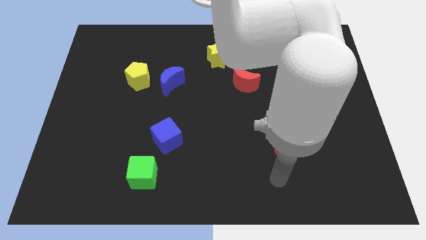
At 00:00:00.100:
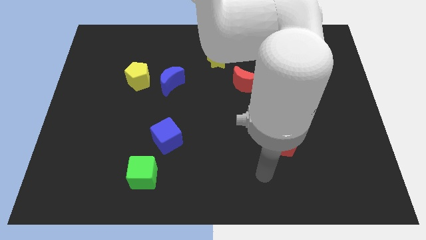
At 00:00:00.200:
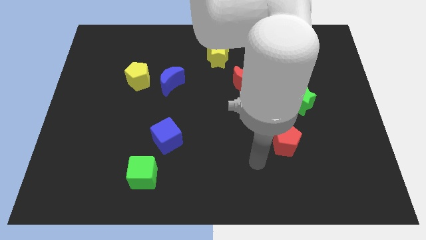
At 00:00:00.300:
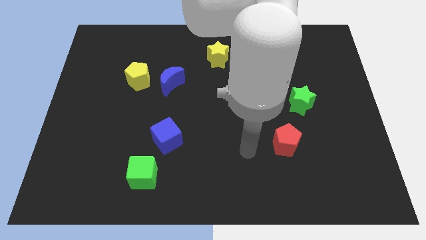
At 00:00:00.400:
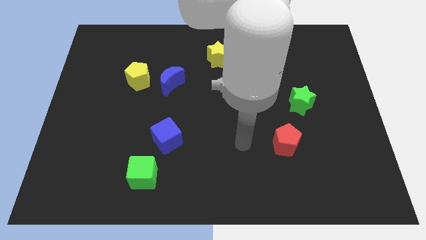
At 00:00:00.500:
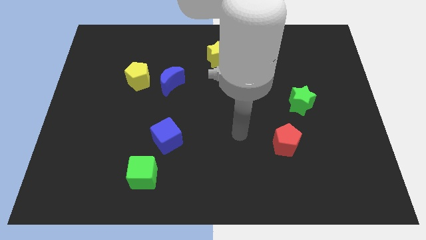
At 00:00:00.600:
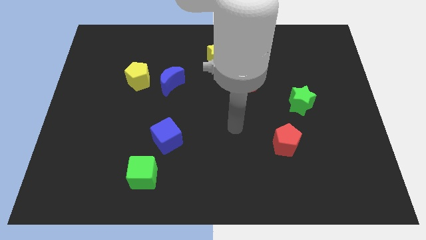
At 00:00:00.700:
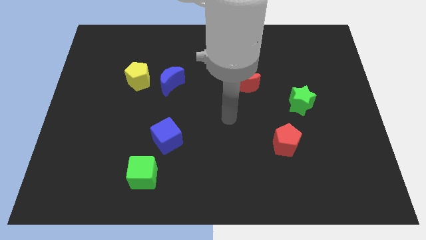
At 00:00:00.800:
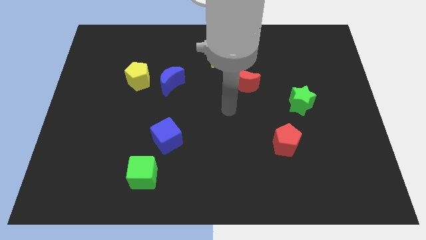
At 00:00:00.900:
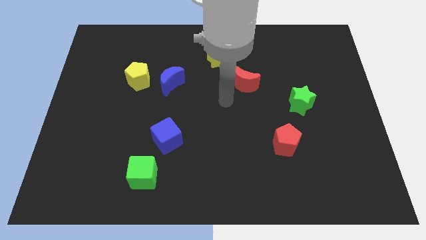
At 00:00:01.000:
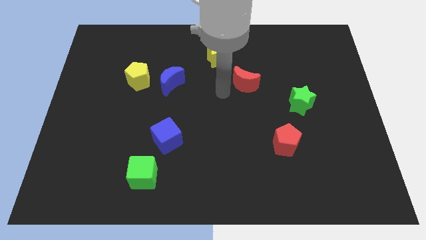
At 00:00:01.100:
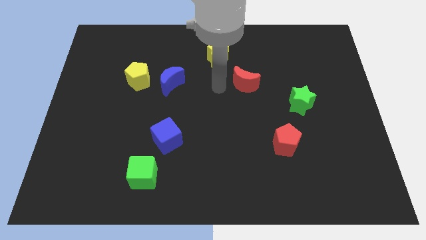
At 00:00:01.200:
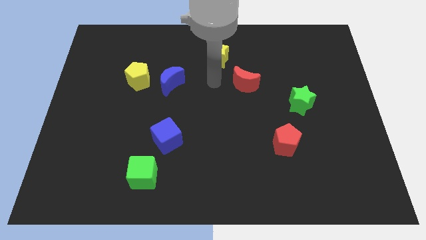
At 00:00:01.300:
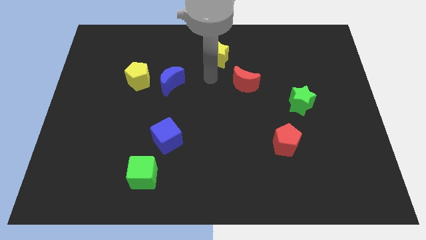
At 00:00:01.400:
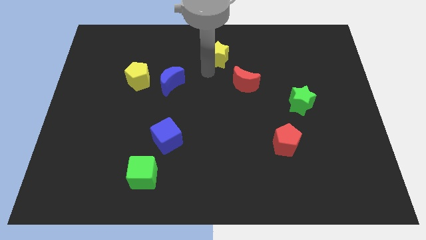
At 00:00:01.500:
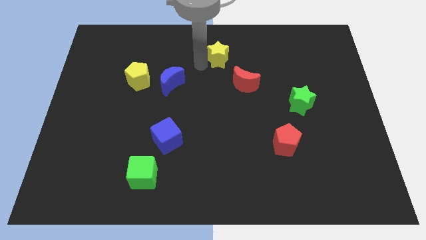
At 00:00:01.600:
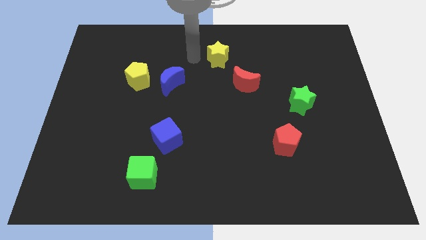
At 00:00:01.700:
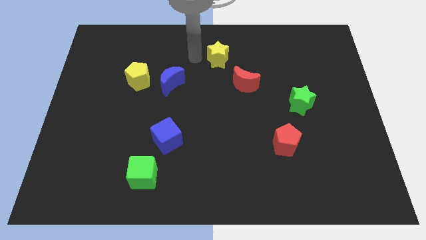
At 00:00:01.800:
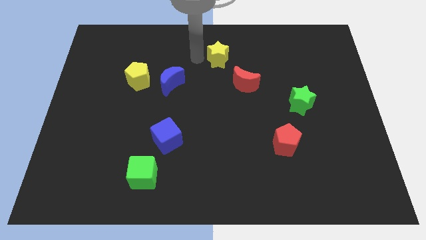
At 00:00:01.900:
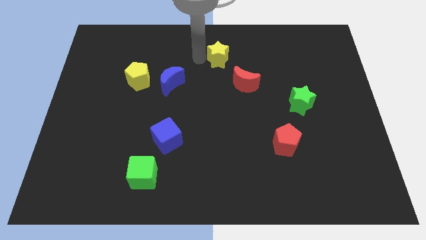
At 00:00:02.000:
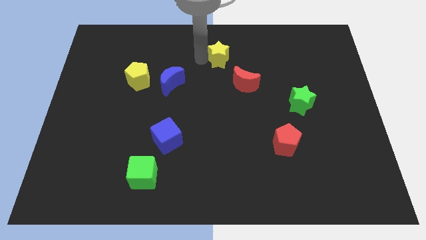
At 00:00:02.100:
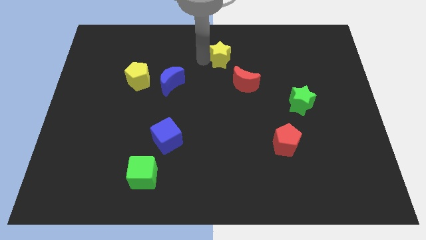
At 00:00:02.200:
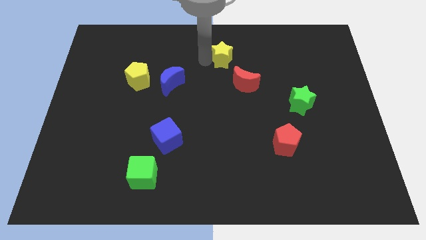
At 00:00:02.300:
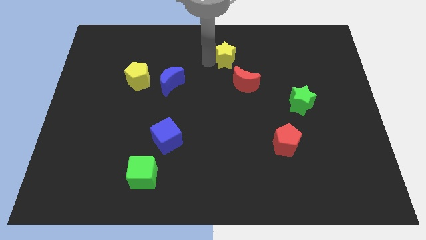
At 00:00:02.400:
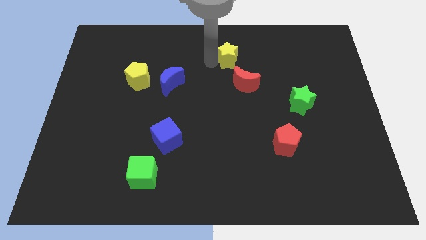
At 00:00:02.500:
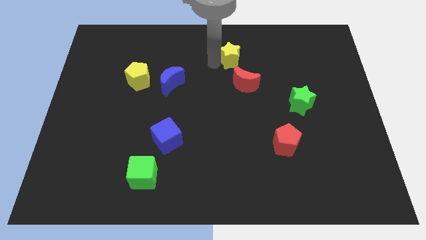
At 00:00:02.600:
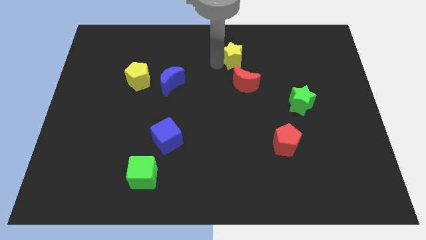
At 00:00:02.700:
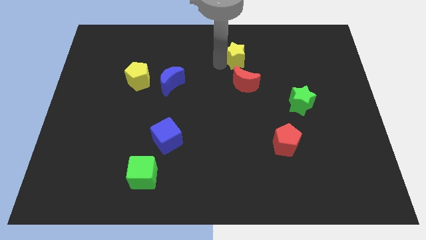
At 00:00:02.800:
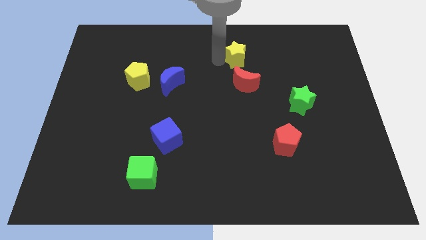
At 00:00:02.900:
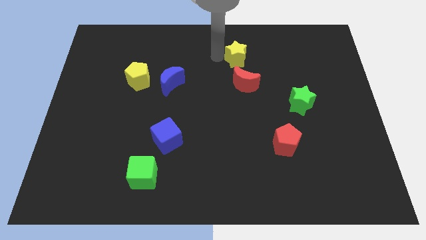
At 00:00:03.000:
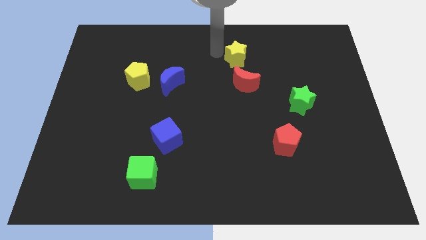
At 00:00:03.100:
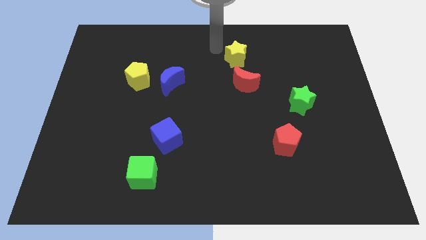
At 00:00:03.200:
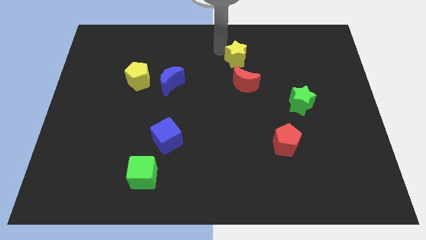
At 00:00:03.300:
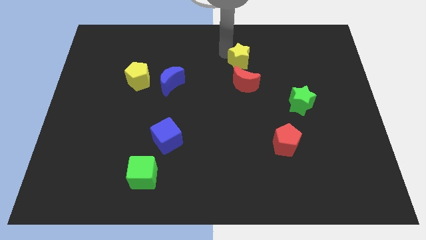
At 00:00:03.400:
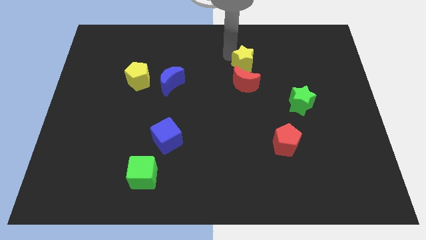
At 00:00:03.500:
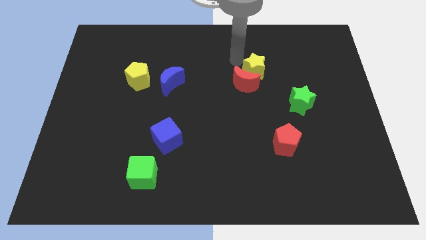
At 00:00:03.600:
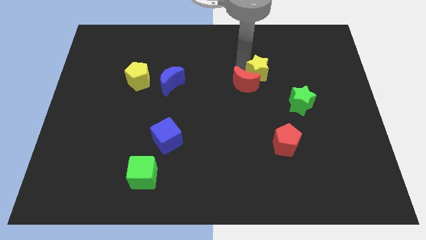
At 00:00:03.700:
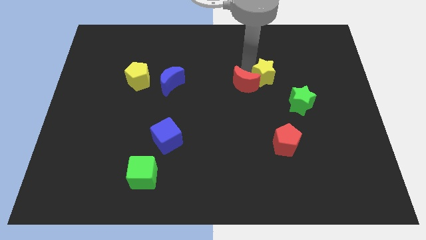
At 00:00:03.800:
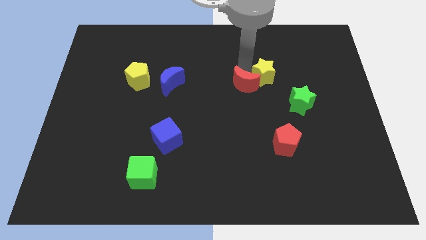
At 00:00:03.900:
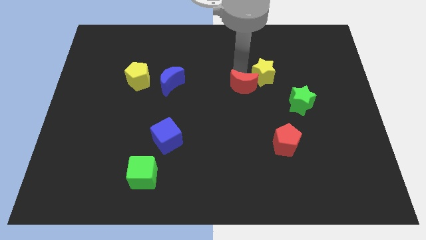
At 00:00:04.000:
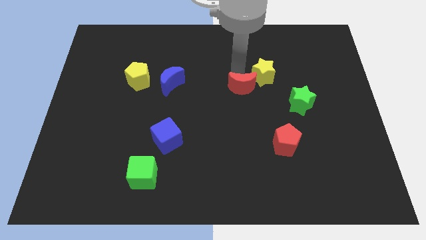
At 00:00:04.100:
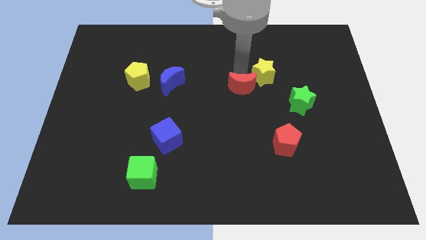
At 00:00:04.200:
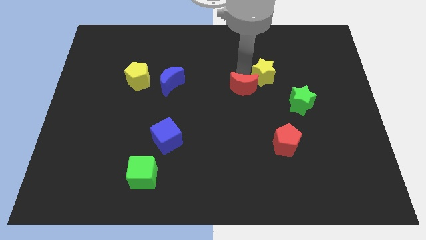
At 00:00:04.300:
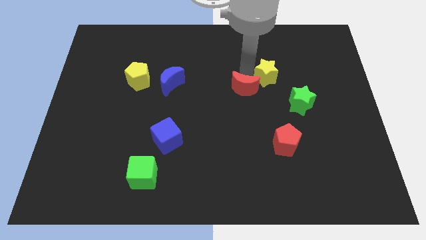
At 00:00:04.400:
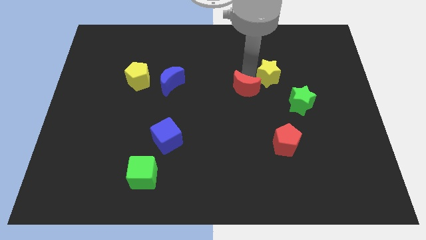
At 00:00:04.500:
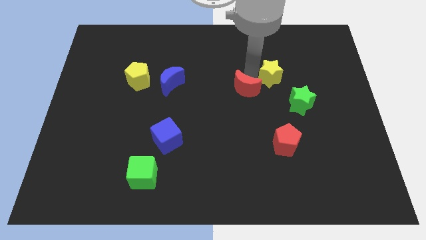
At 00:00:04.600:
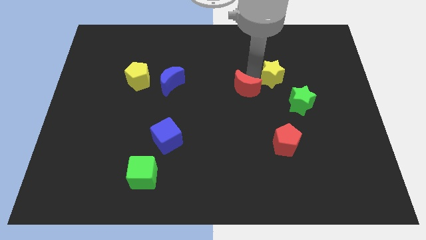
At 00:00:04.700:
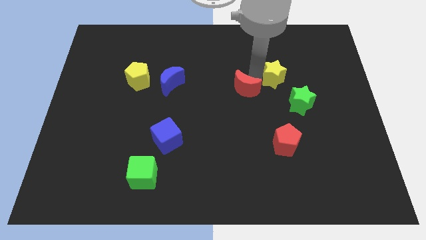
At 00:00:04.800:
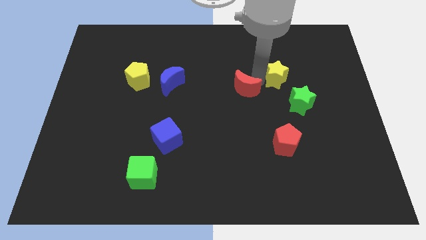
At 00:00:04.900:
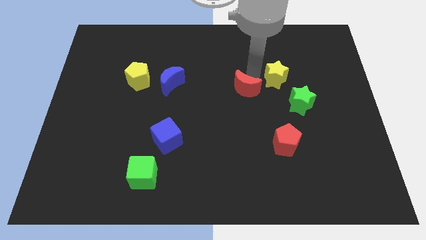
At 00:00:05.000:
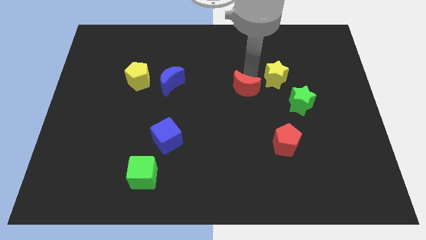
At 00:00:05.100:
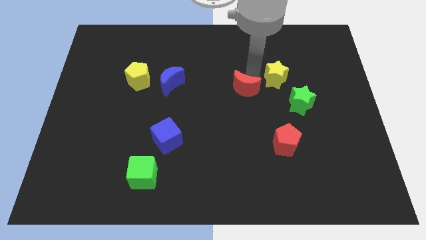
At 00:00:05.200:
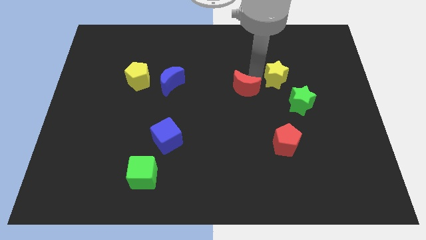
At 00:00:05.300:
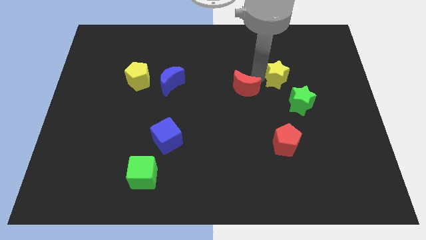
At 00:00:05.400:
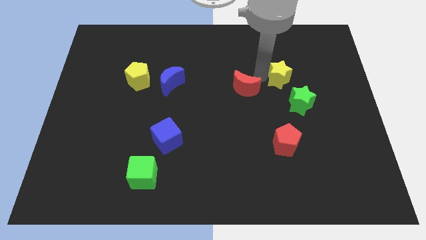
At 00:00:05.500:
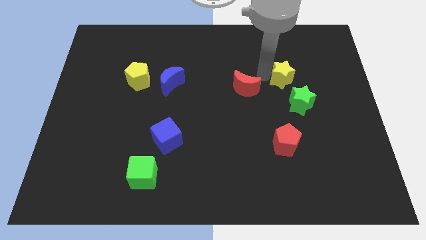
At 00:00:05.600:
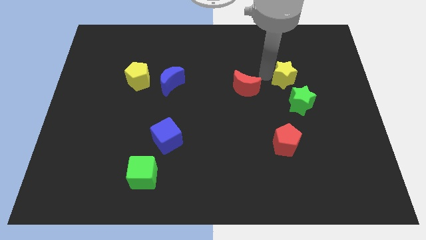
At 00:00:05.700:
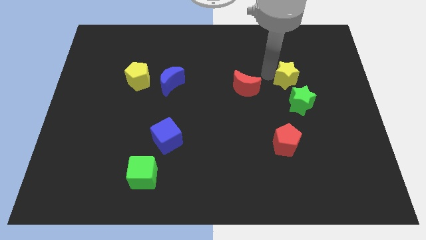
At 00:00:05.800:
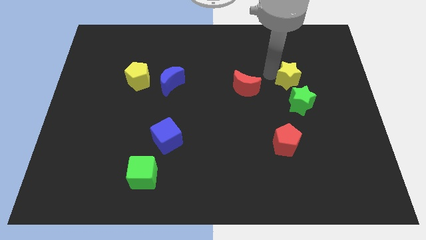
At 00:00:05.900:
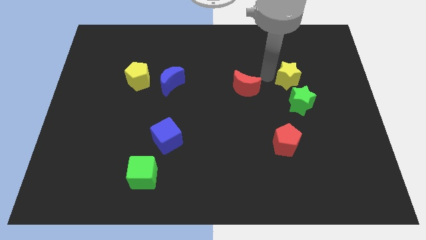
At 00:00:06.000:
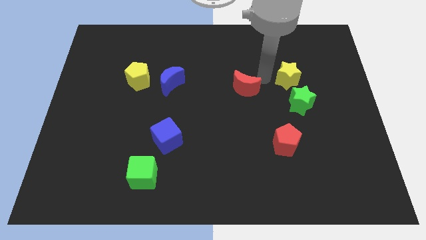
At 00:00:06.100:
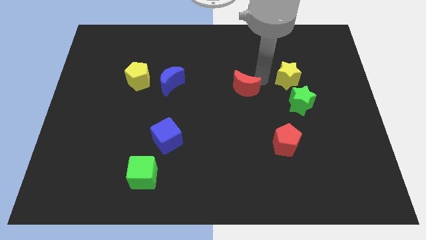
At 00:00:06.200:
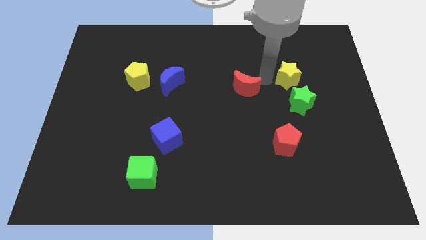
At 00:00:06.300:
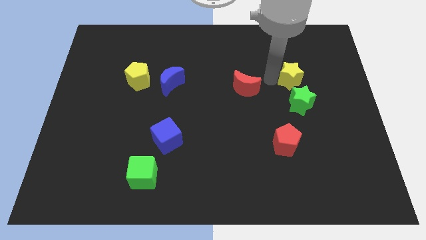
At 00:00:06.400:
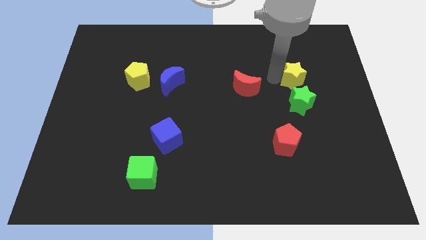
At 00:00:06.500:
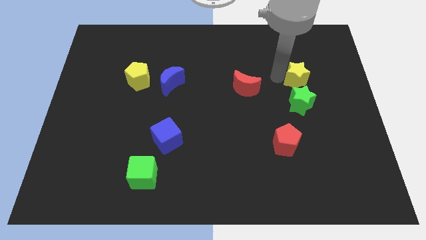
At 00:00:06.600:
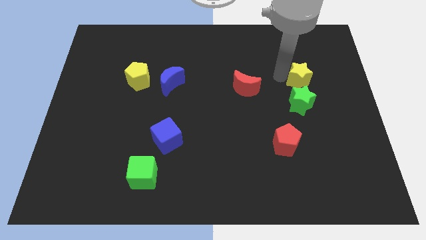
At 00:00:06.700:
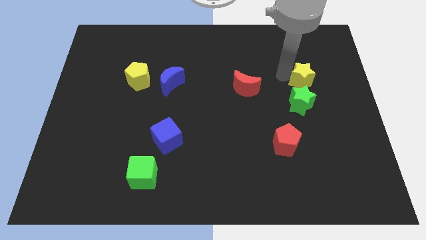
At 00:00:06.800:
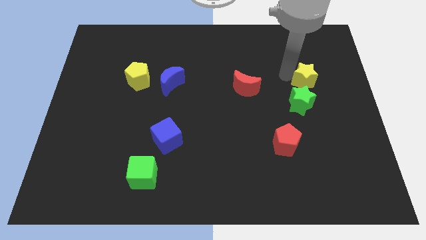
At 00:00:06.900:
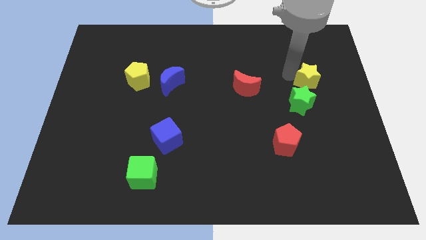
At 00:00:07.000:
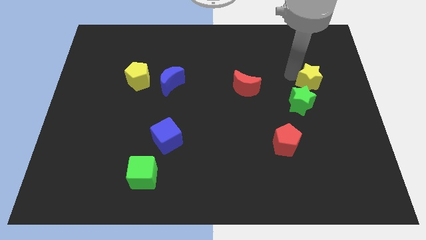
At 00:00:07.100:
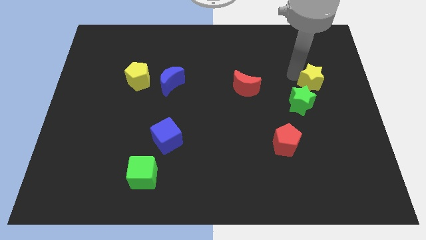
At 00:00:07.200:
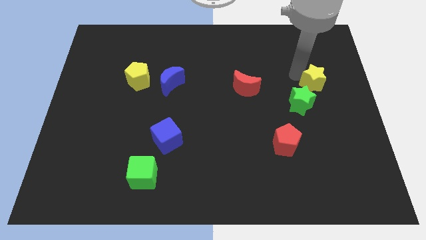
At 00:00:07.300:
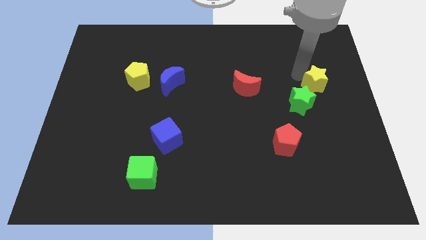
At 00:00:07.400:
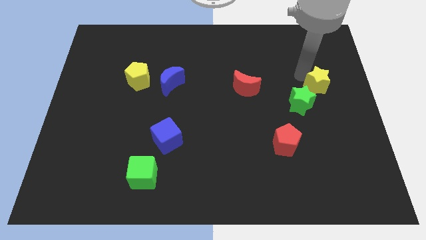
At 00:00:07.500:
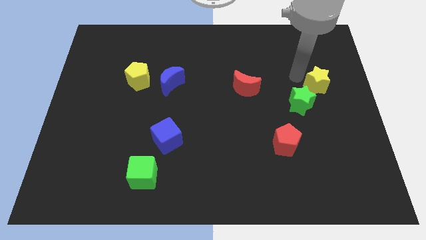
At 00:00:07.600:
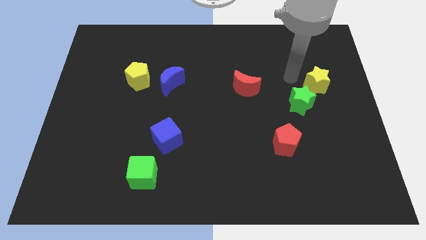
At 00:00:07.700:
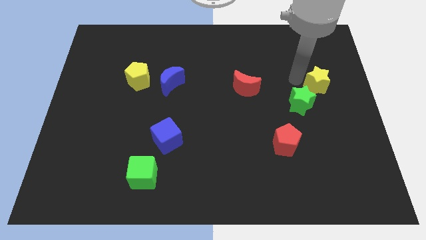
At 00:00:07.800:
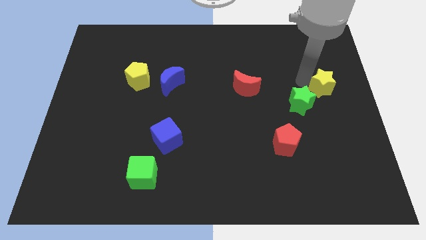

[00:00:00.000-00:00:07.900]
slide the yellow star to the right side

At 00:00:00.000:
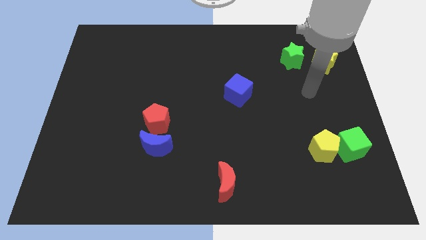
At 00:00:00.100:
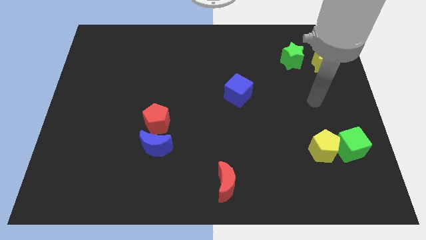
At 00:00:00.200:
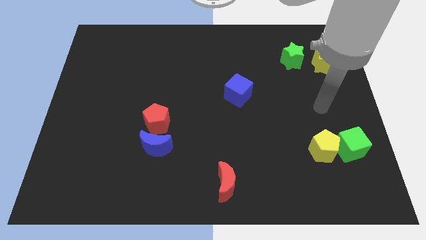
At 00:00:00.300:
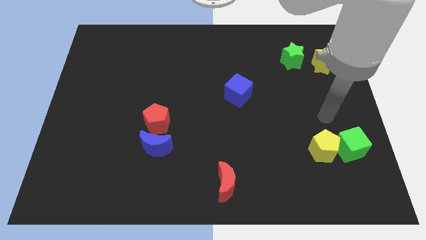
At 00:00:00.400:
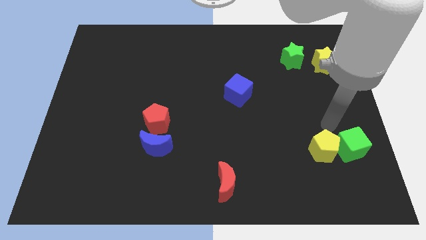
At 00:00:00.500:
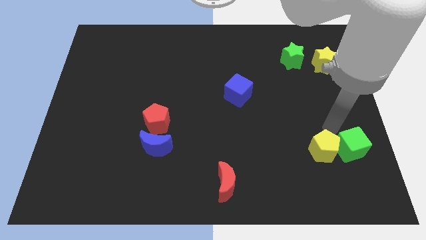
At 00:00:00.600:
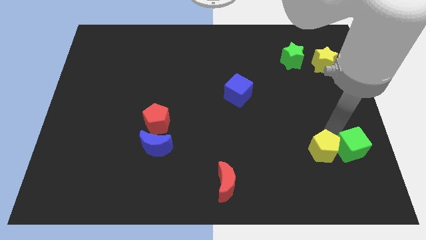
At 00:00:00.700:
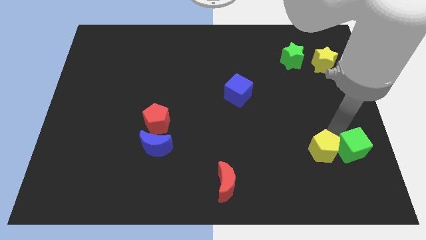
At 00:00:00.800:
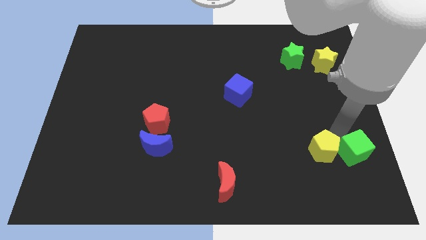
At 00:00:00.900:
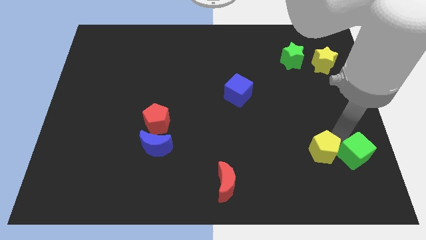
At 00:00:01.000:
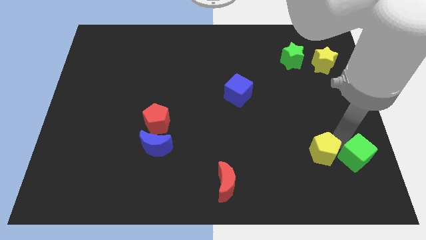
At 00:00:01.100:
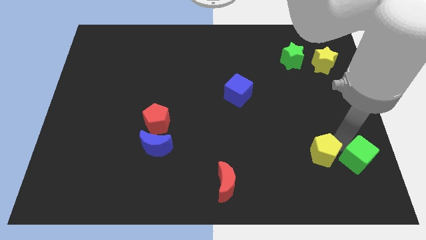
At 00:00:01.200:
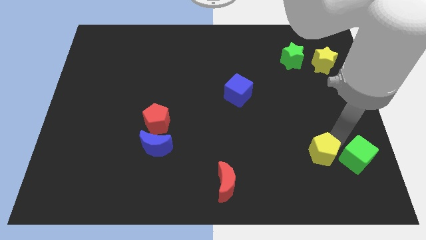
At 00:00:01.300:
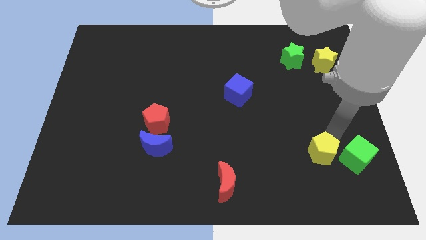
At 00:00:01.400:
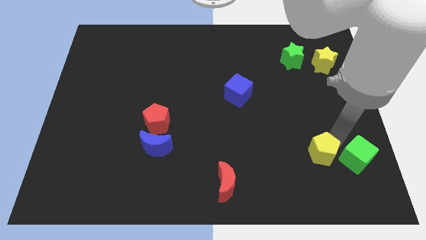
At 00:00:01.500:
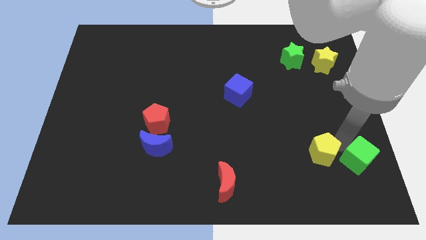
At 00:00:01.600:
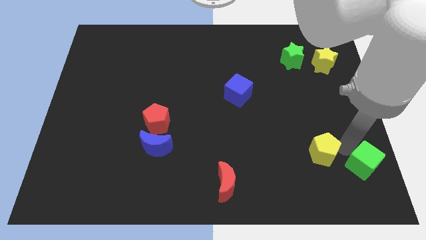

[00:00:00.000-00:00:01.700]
move the green cube to the bottom right corner
